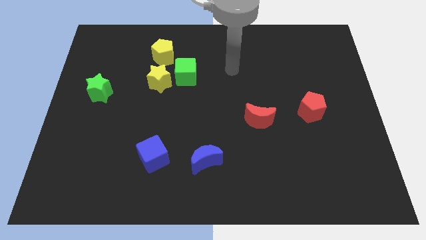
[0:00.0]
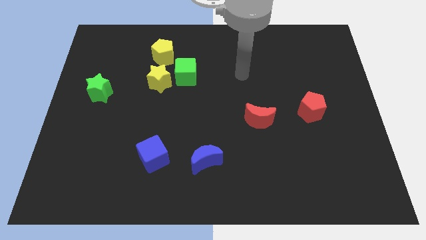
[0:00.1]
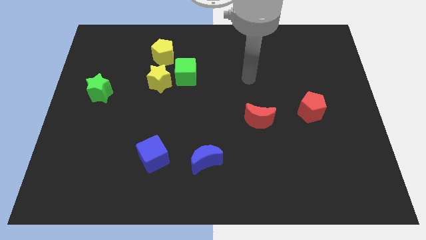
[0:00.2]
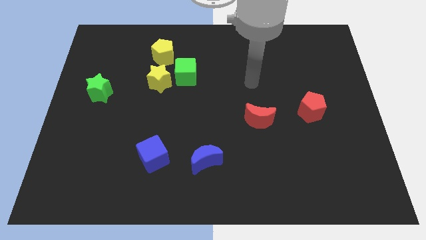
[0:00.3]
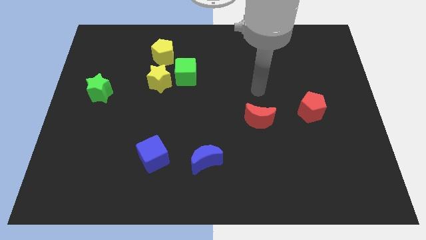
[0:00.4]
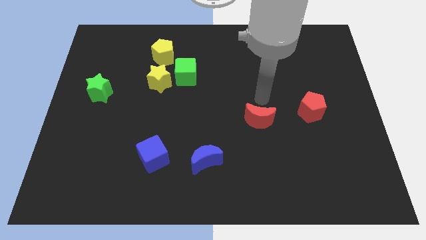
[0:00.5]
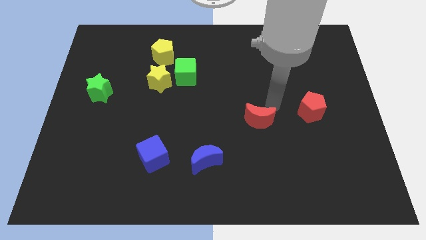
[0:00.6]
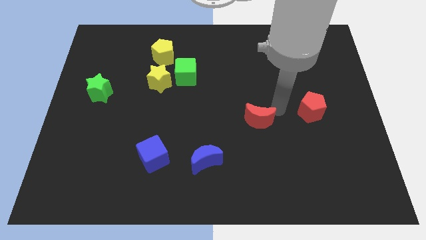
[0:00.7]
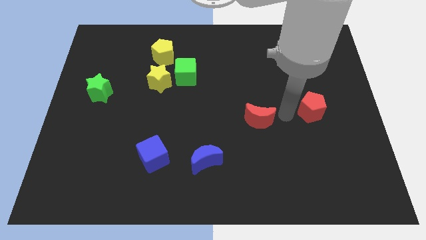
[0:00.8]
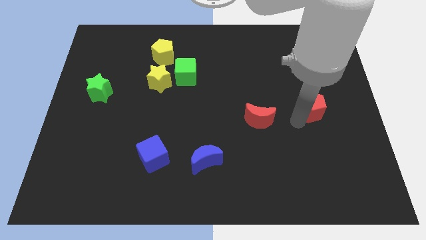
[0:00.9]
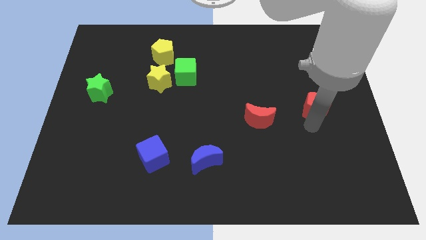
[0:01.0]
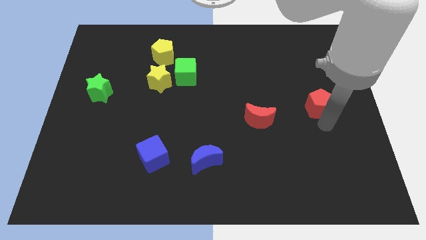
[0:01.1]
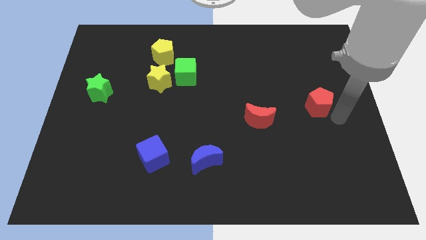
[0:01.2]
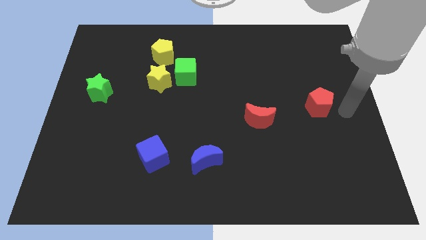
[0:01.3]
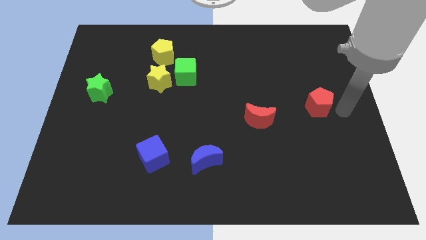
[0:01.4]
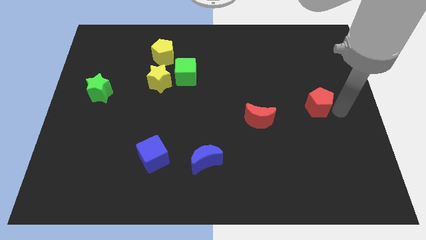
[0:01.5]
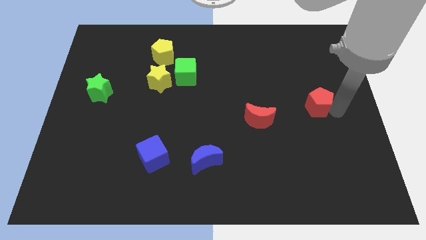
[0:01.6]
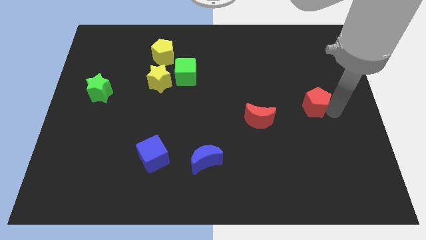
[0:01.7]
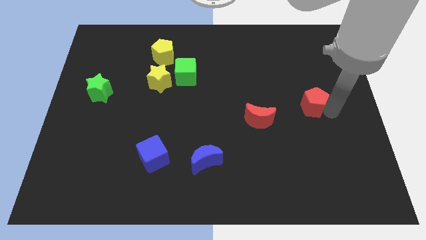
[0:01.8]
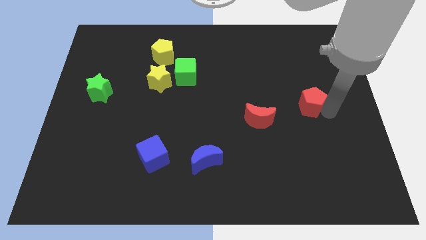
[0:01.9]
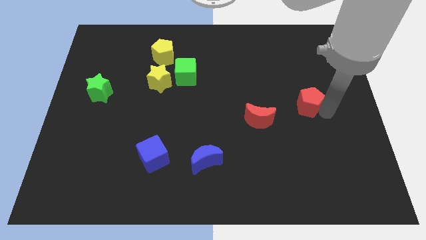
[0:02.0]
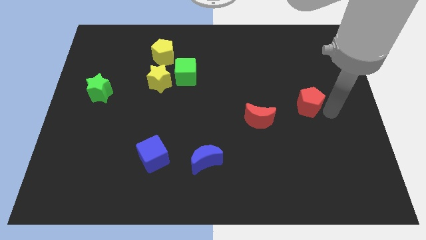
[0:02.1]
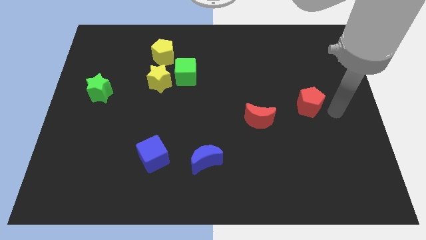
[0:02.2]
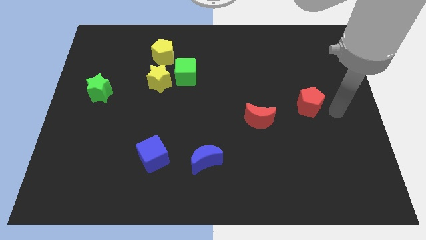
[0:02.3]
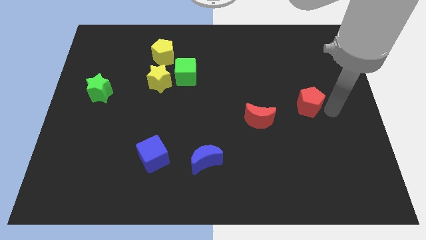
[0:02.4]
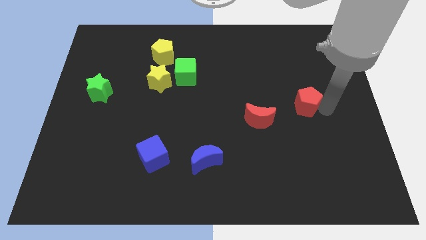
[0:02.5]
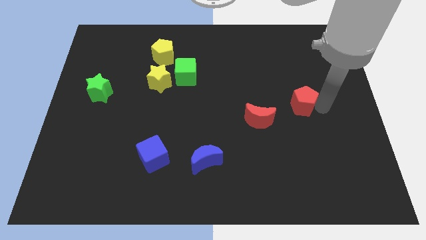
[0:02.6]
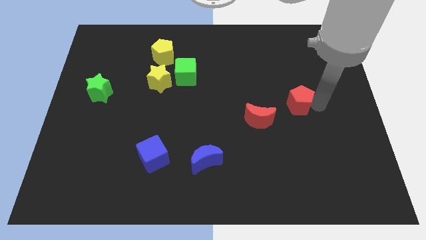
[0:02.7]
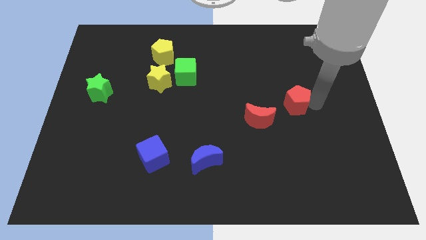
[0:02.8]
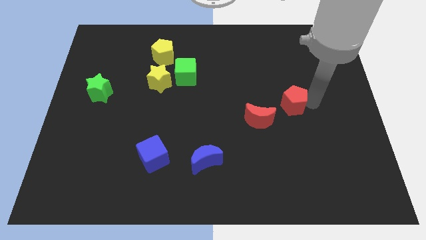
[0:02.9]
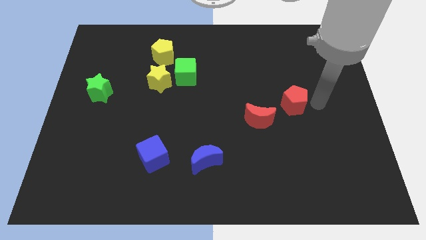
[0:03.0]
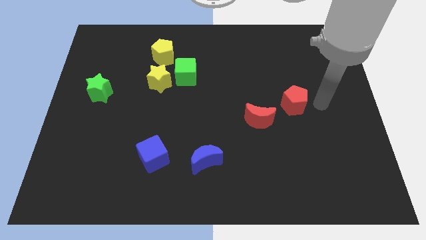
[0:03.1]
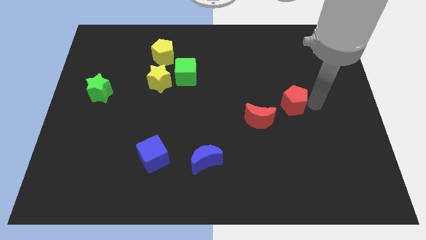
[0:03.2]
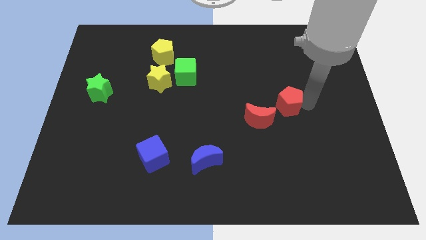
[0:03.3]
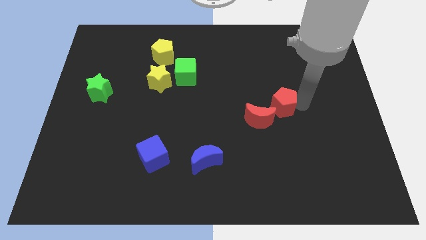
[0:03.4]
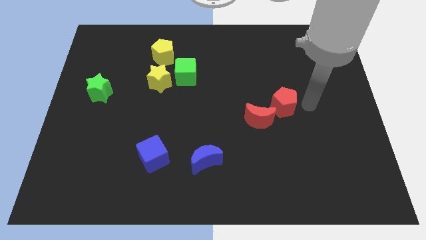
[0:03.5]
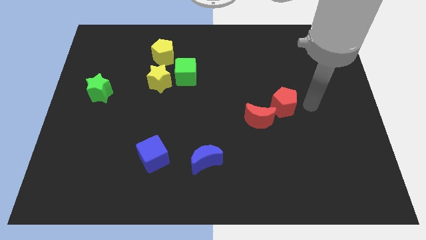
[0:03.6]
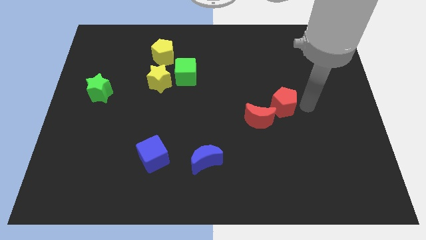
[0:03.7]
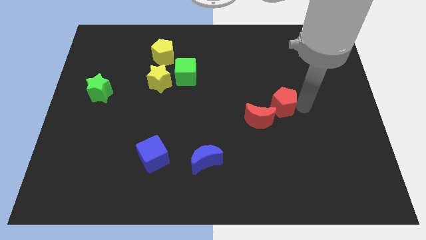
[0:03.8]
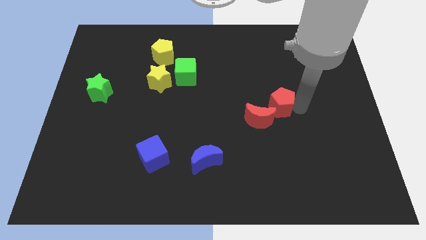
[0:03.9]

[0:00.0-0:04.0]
move the red pentagon to the left slightly

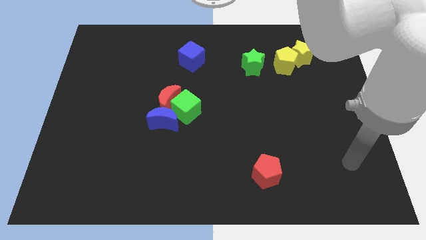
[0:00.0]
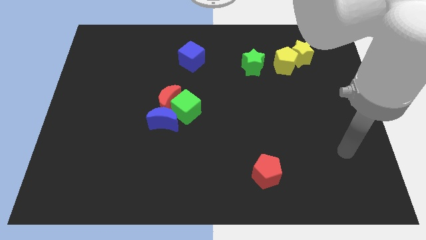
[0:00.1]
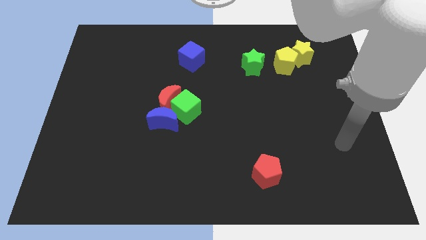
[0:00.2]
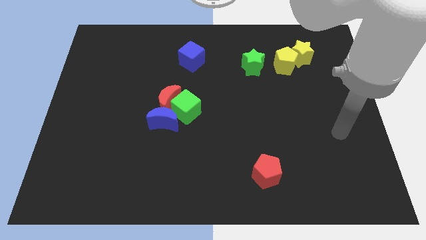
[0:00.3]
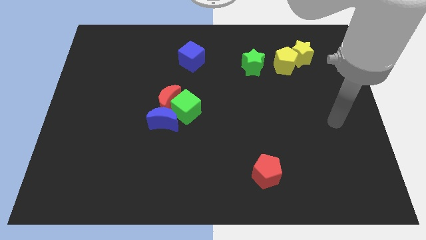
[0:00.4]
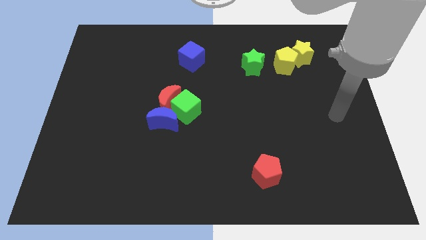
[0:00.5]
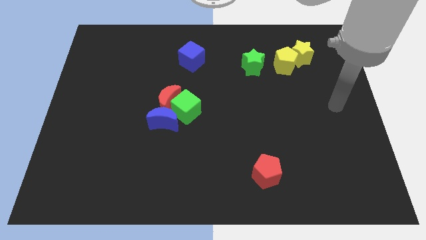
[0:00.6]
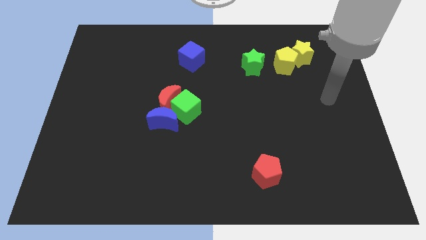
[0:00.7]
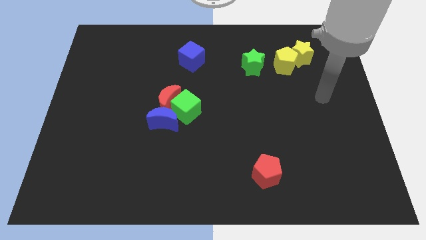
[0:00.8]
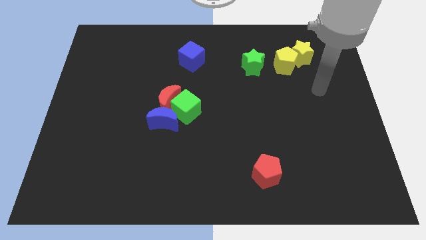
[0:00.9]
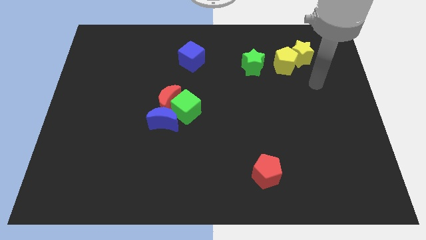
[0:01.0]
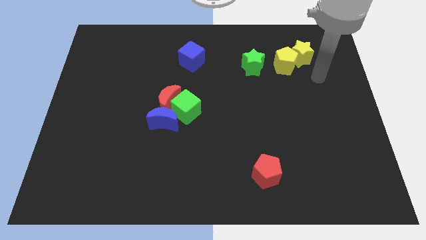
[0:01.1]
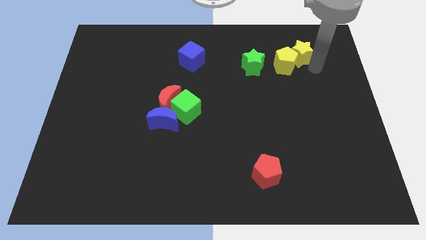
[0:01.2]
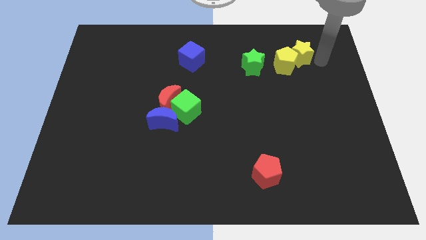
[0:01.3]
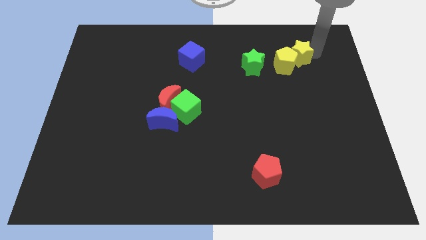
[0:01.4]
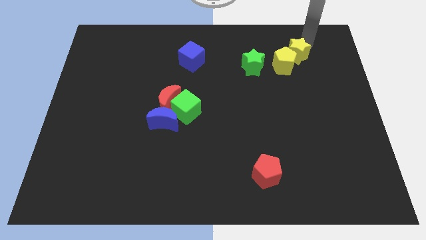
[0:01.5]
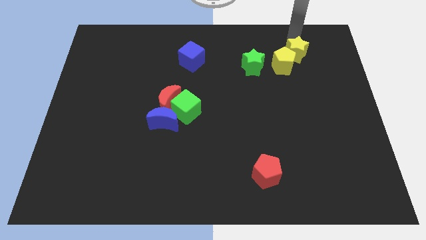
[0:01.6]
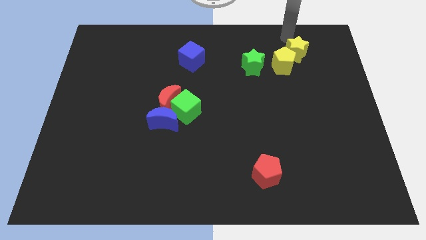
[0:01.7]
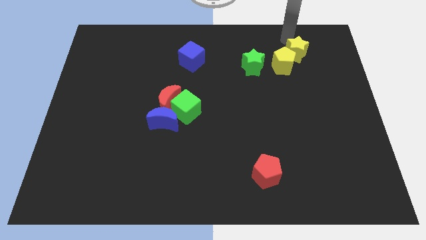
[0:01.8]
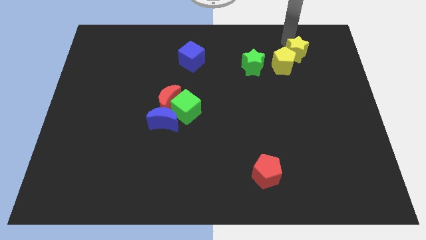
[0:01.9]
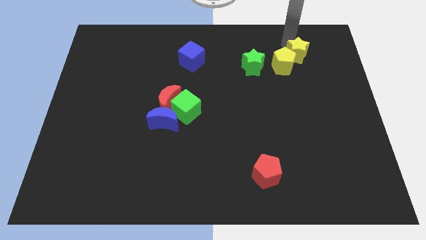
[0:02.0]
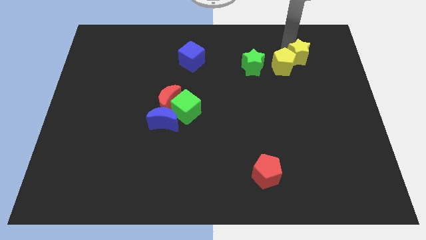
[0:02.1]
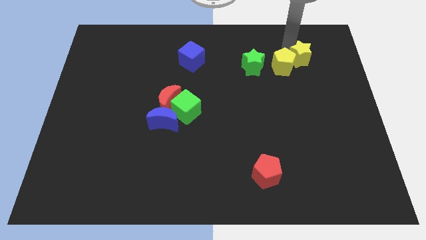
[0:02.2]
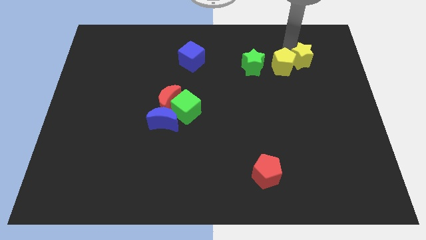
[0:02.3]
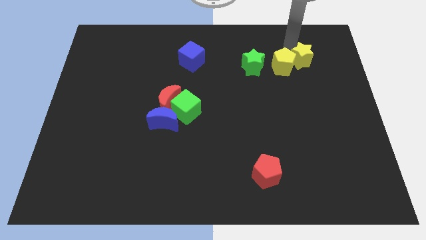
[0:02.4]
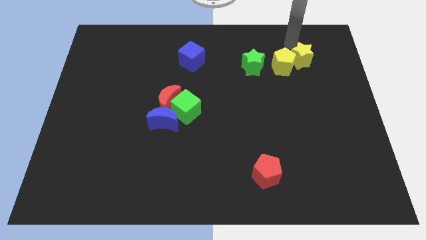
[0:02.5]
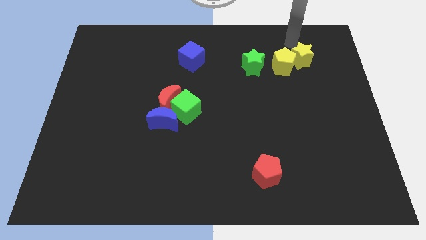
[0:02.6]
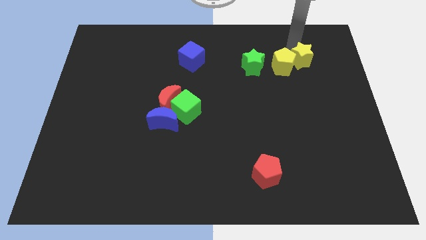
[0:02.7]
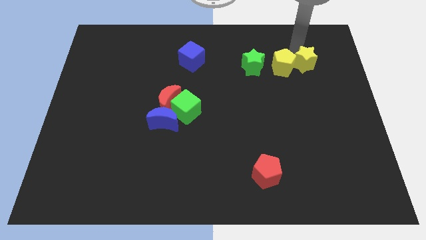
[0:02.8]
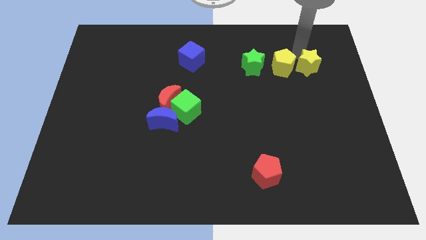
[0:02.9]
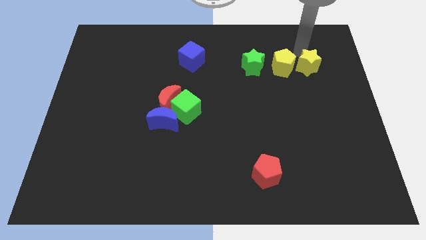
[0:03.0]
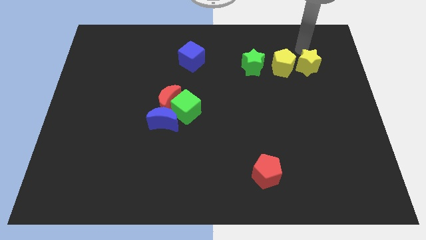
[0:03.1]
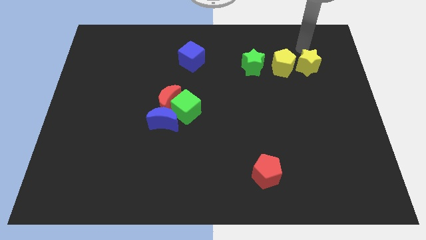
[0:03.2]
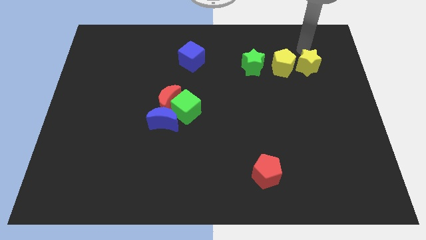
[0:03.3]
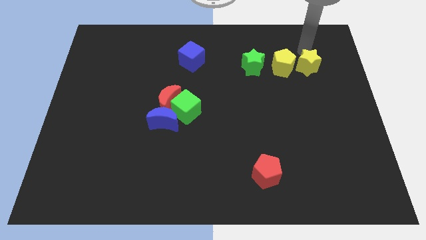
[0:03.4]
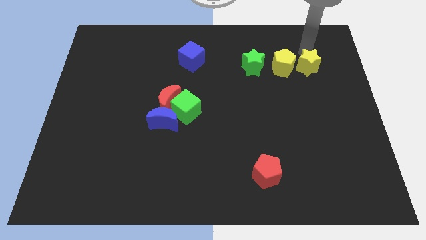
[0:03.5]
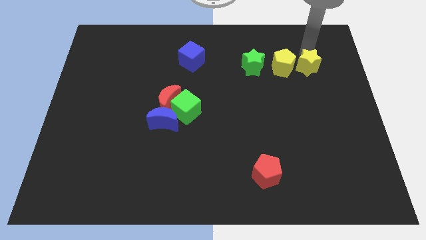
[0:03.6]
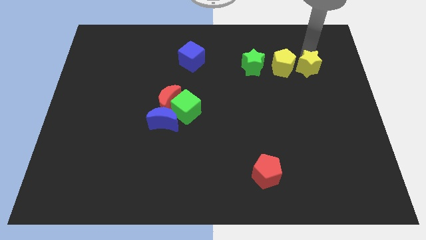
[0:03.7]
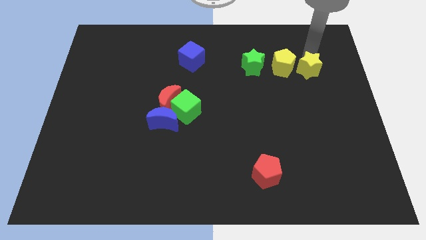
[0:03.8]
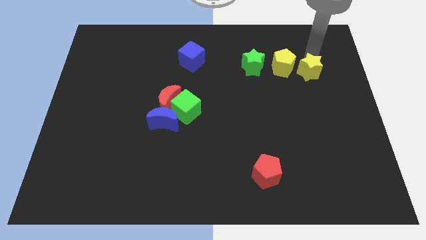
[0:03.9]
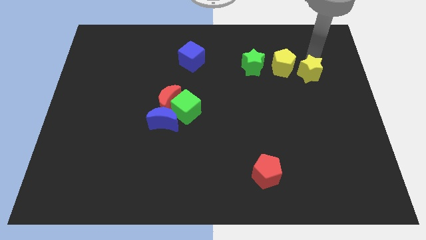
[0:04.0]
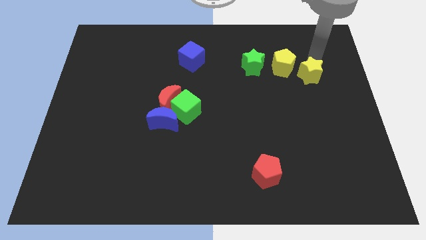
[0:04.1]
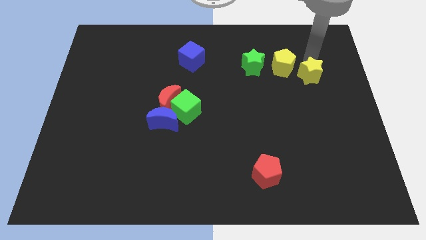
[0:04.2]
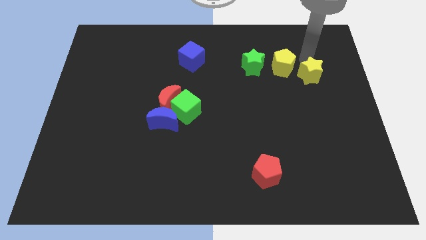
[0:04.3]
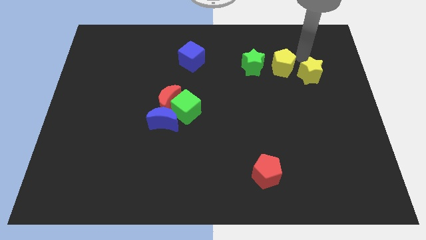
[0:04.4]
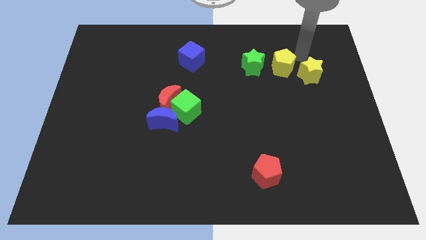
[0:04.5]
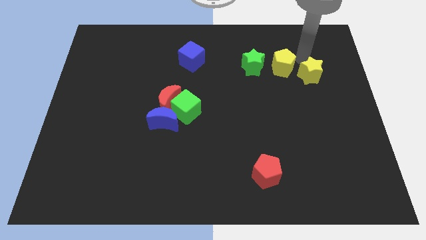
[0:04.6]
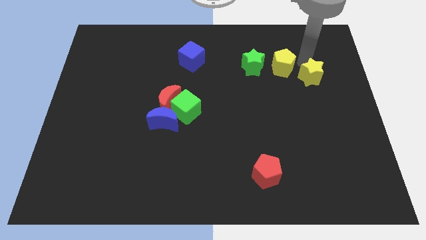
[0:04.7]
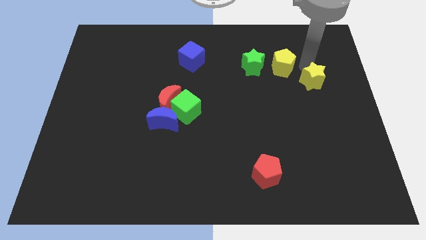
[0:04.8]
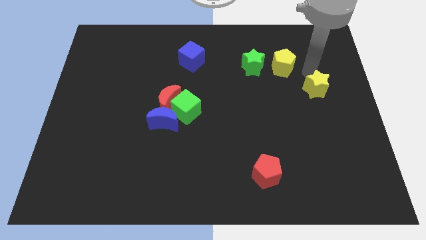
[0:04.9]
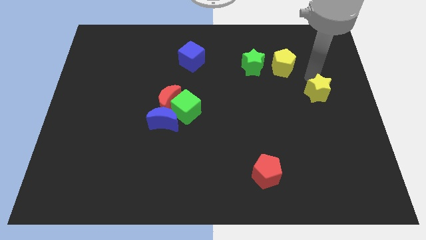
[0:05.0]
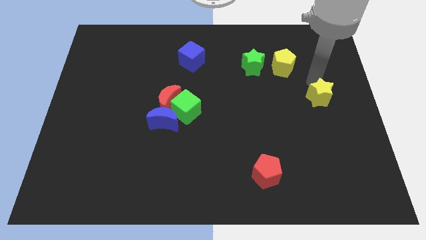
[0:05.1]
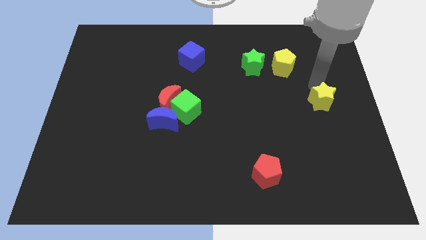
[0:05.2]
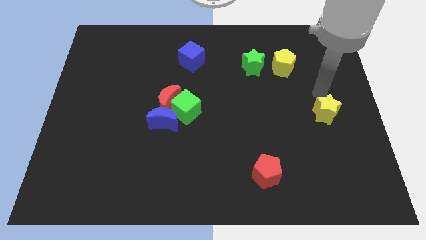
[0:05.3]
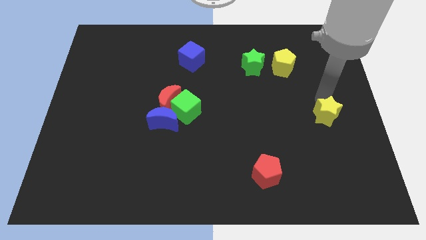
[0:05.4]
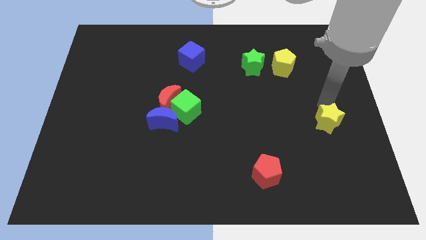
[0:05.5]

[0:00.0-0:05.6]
push the yellow star down
